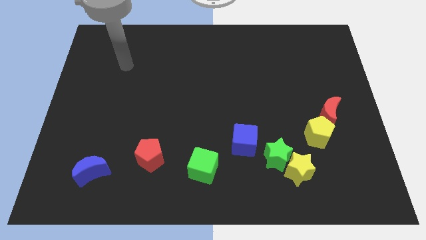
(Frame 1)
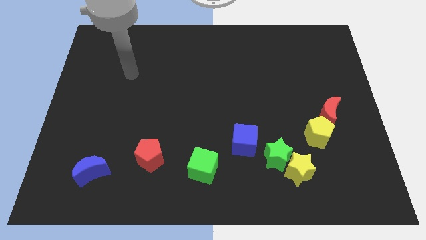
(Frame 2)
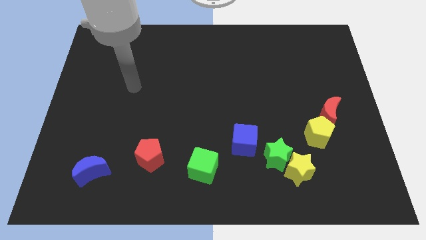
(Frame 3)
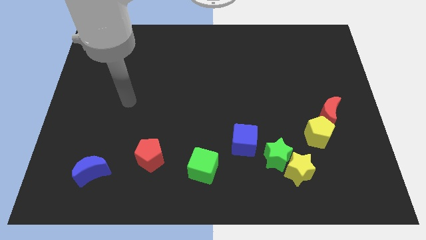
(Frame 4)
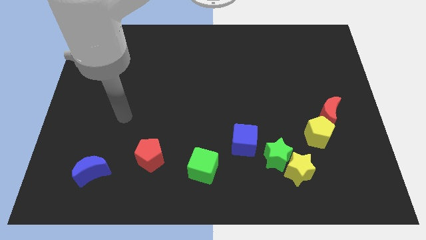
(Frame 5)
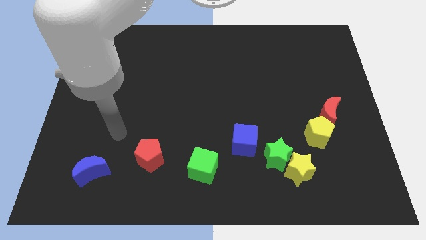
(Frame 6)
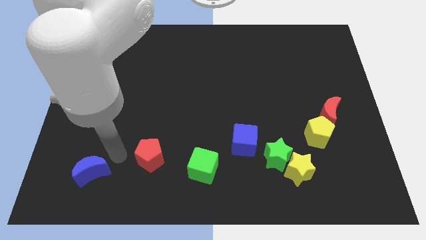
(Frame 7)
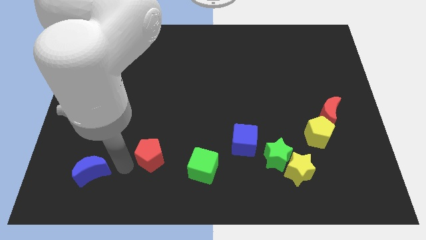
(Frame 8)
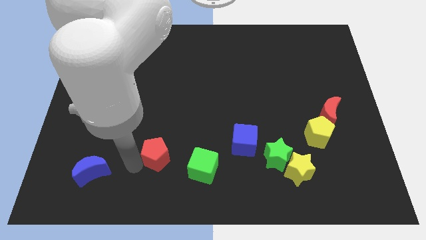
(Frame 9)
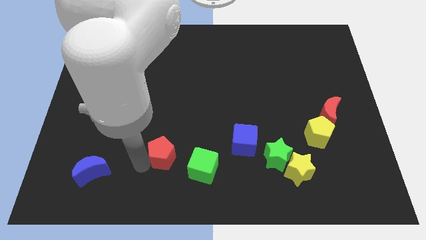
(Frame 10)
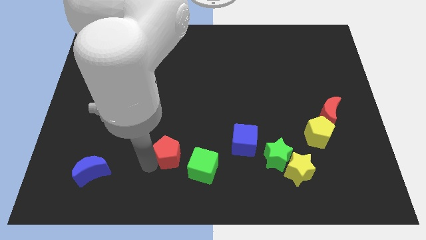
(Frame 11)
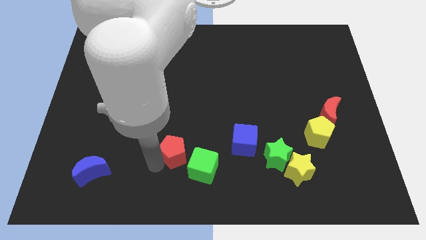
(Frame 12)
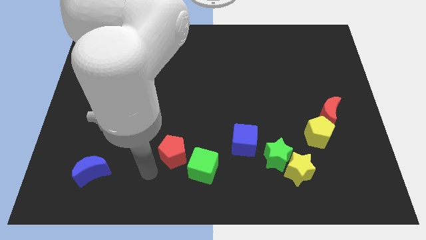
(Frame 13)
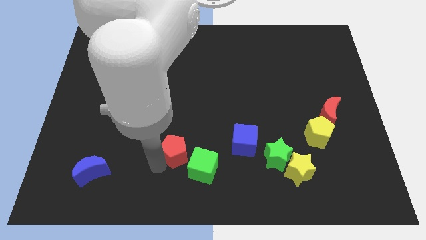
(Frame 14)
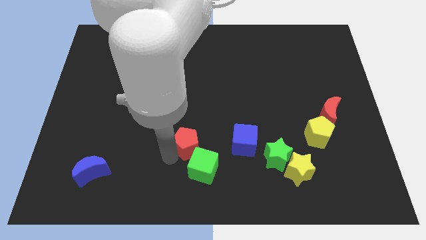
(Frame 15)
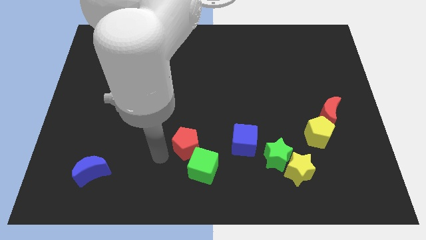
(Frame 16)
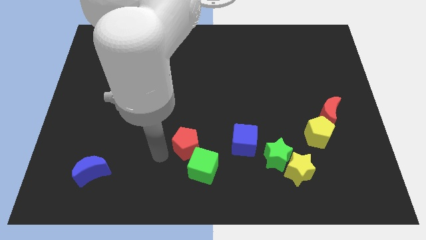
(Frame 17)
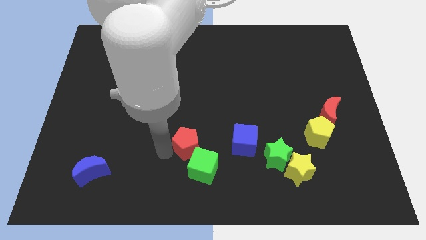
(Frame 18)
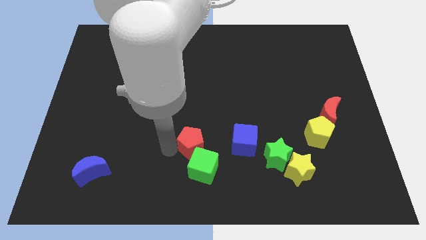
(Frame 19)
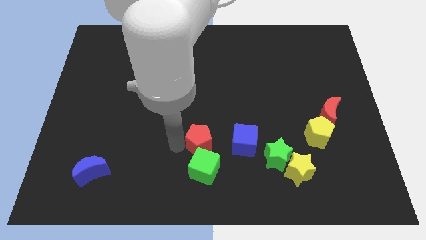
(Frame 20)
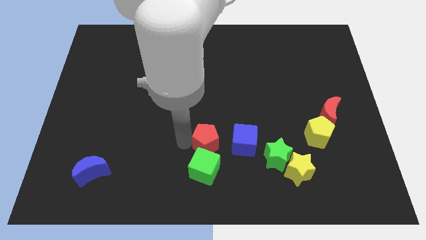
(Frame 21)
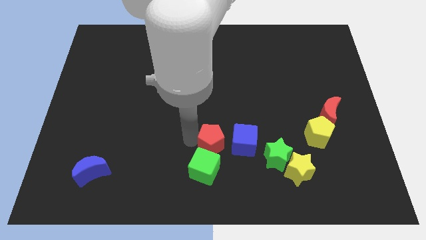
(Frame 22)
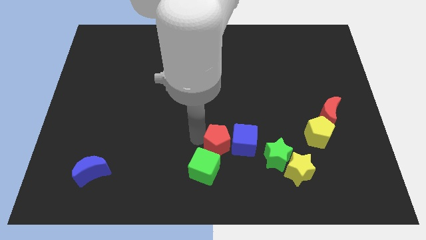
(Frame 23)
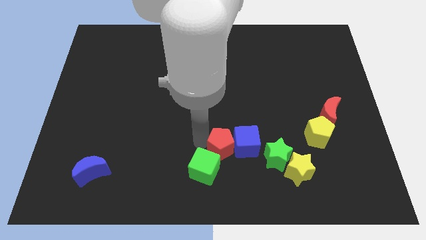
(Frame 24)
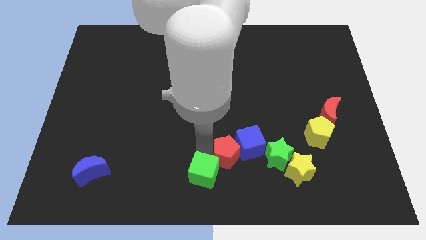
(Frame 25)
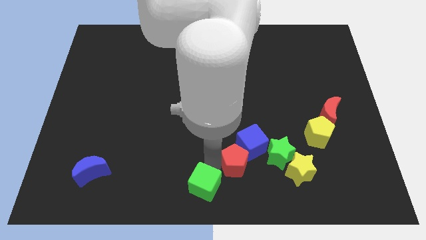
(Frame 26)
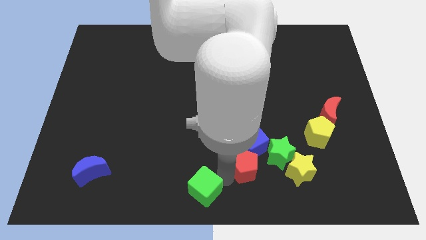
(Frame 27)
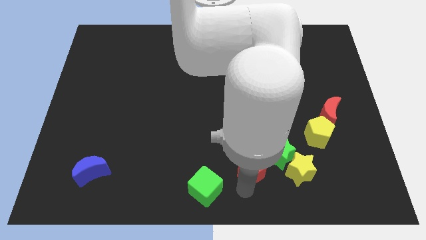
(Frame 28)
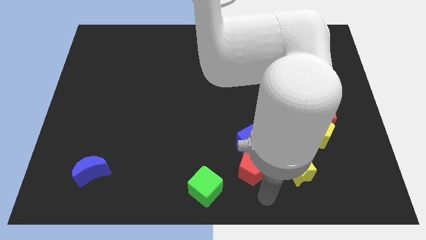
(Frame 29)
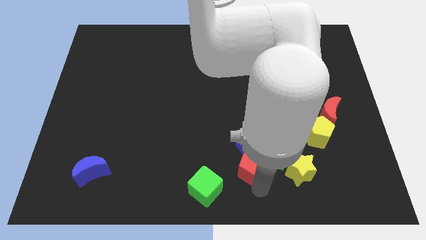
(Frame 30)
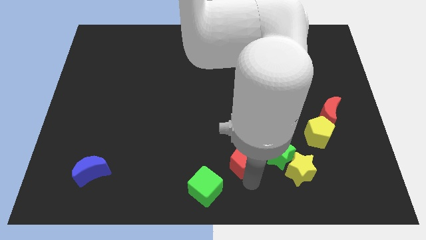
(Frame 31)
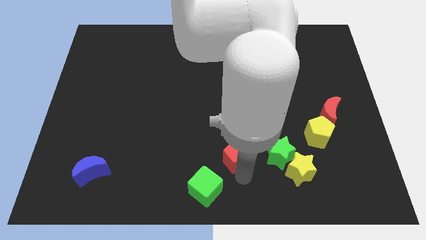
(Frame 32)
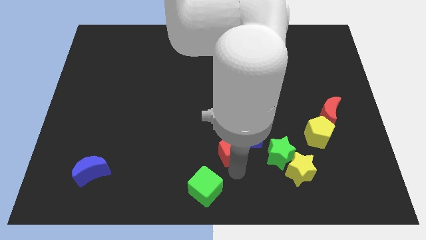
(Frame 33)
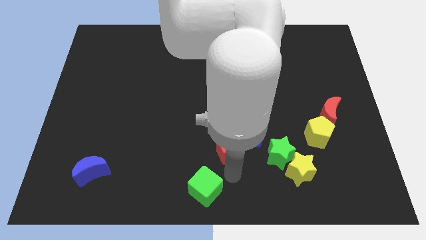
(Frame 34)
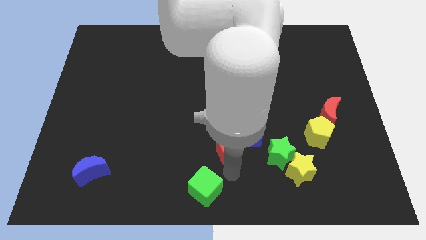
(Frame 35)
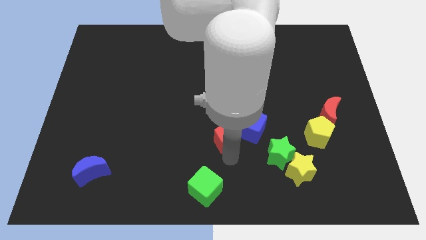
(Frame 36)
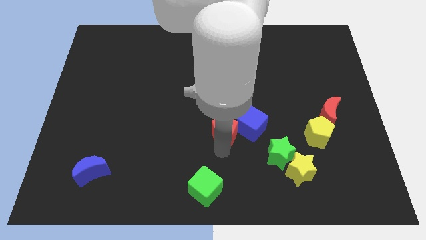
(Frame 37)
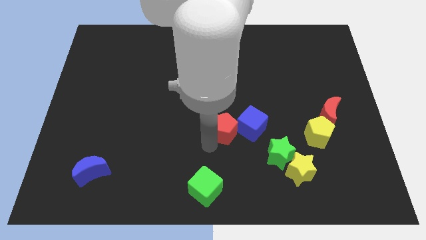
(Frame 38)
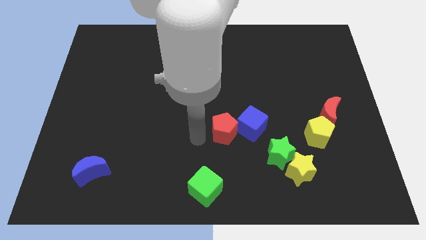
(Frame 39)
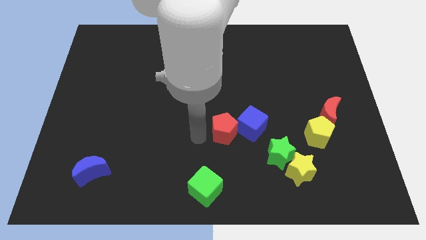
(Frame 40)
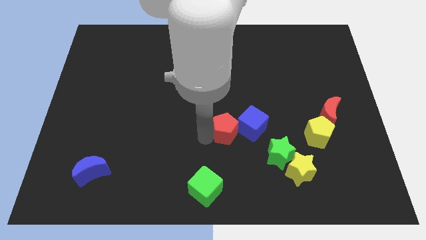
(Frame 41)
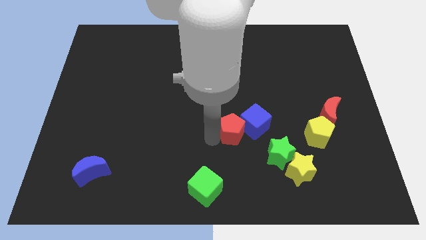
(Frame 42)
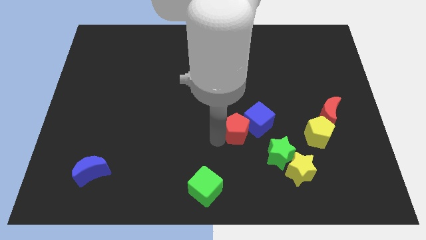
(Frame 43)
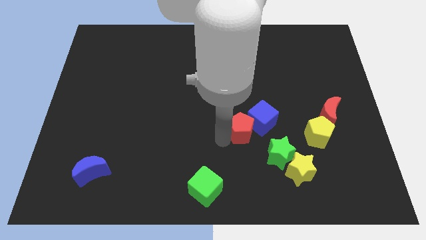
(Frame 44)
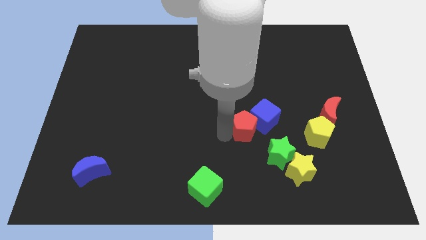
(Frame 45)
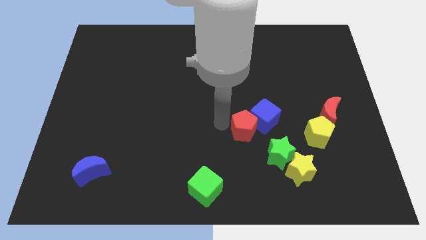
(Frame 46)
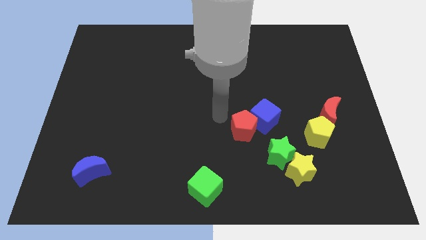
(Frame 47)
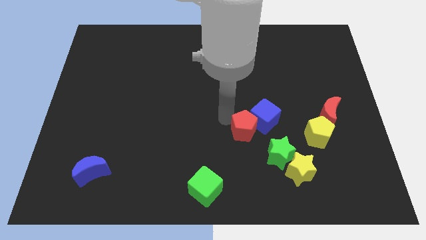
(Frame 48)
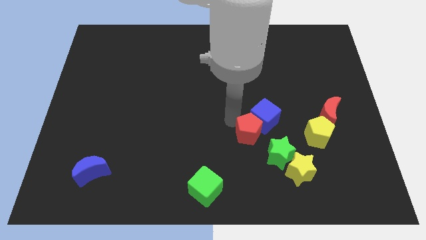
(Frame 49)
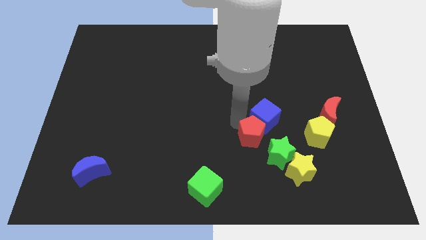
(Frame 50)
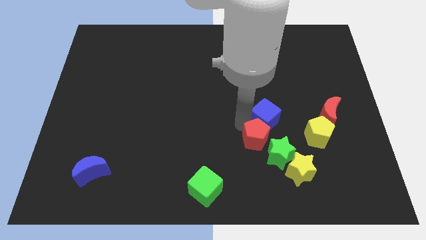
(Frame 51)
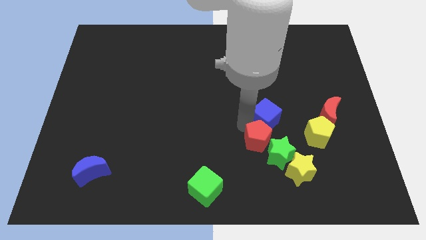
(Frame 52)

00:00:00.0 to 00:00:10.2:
push the red pentagon to the green star

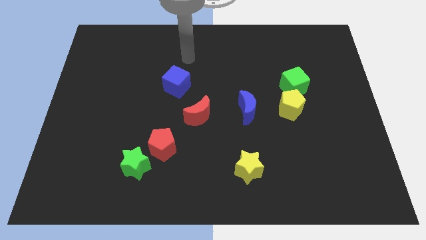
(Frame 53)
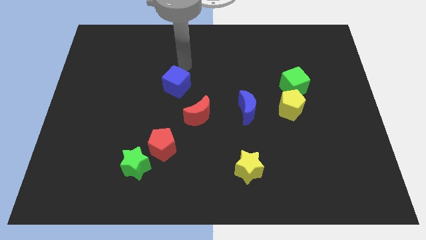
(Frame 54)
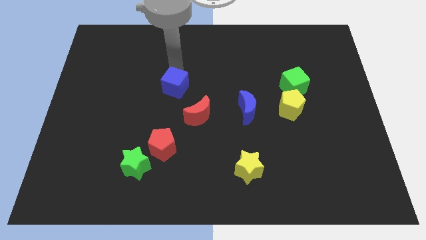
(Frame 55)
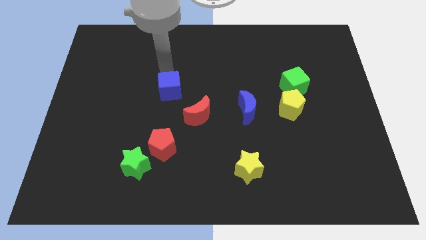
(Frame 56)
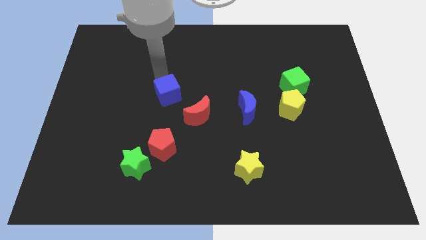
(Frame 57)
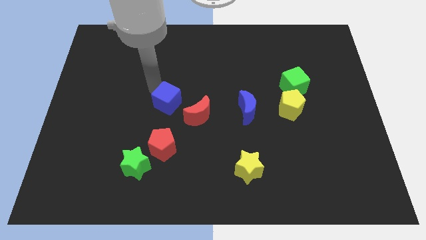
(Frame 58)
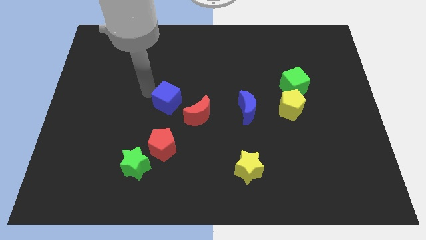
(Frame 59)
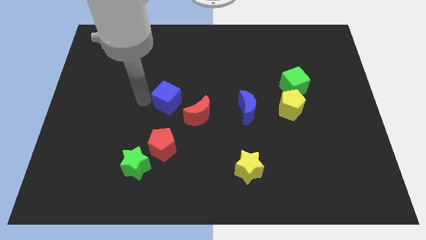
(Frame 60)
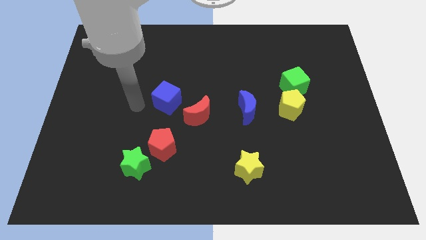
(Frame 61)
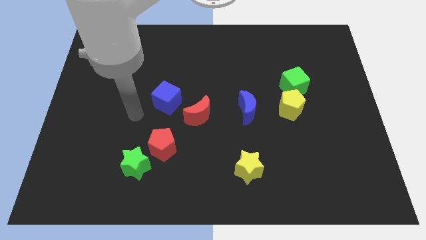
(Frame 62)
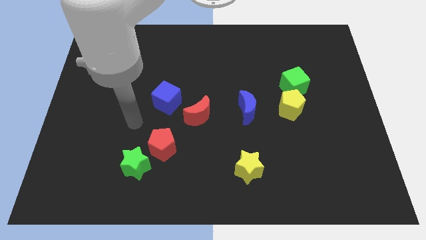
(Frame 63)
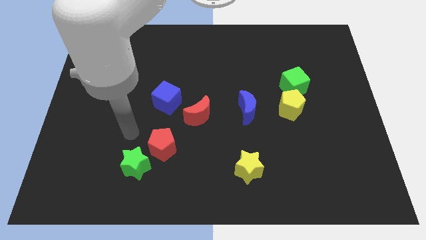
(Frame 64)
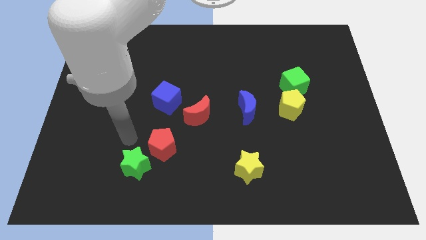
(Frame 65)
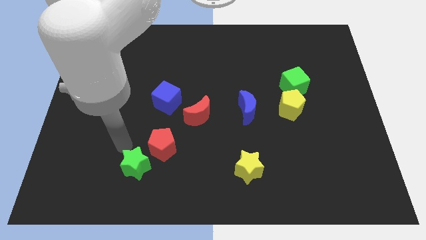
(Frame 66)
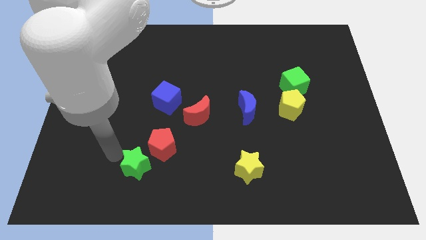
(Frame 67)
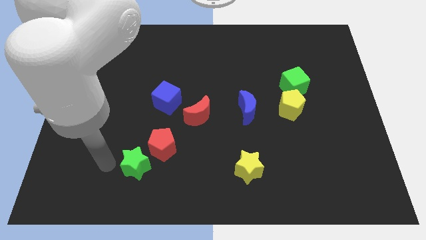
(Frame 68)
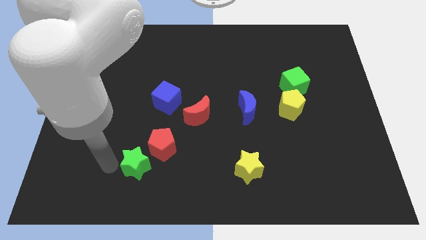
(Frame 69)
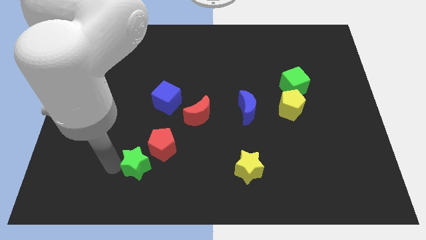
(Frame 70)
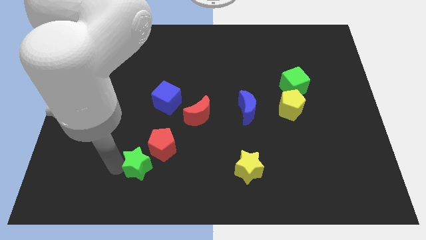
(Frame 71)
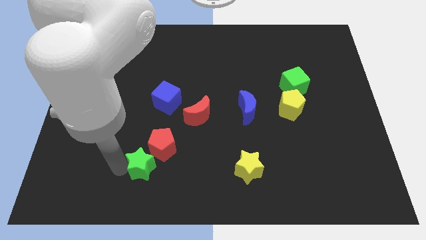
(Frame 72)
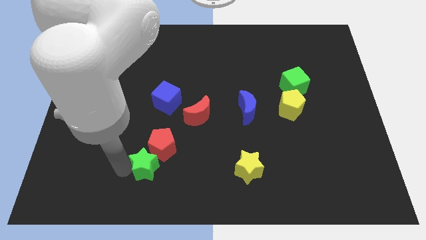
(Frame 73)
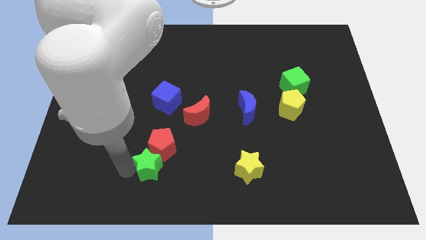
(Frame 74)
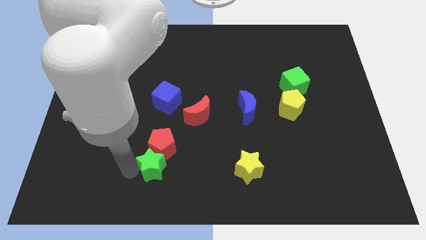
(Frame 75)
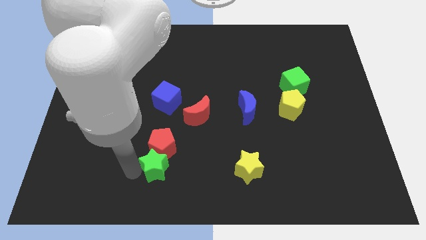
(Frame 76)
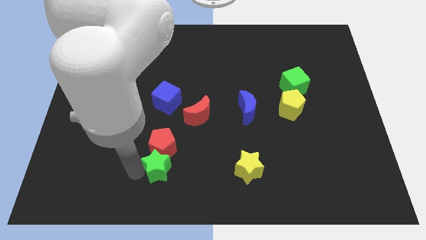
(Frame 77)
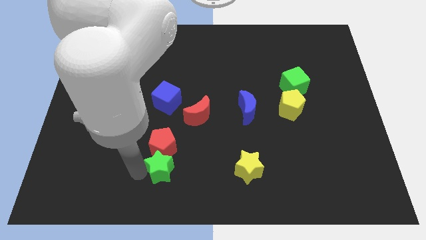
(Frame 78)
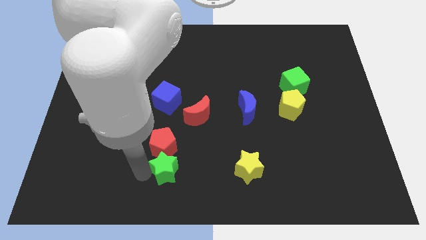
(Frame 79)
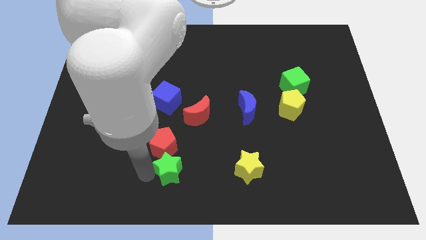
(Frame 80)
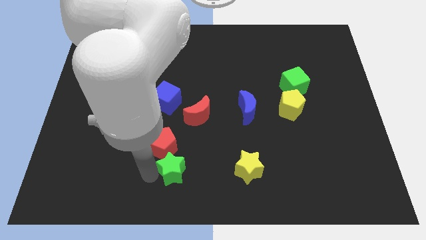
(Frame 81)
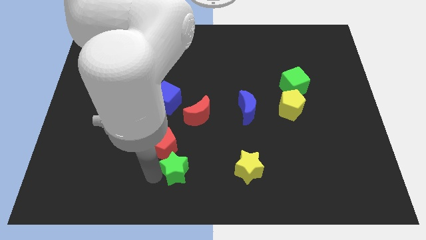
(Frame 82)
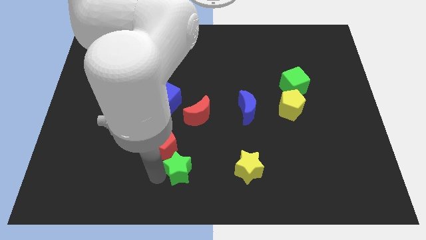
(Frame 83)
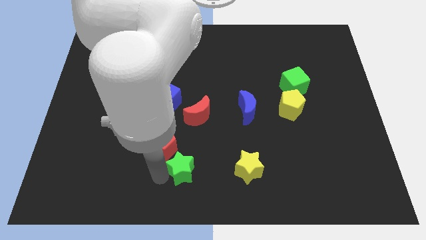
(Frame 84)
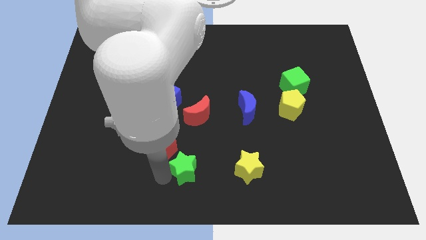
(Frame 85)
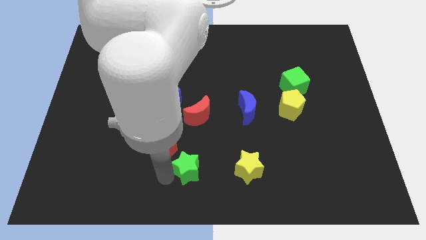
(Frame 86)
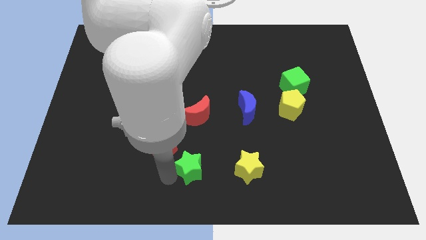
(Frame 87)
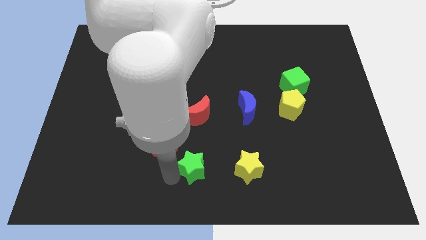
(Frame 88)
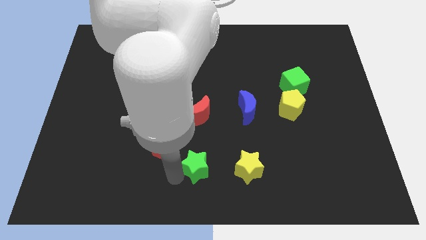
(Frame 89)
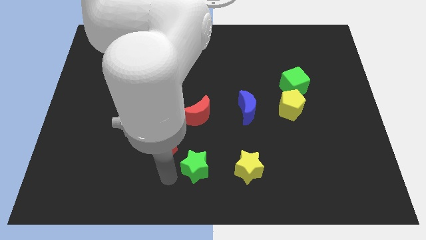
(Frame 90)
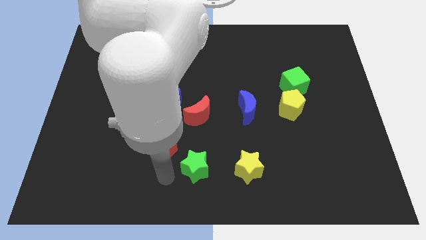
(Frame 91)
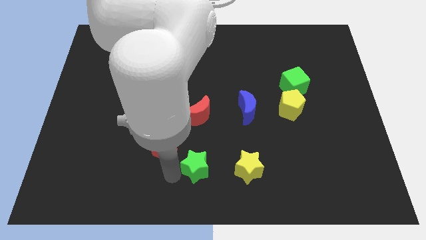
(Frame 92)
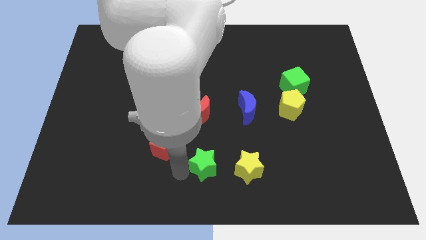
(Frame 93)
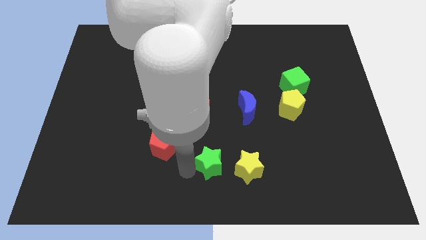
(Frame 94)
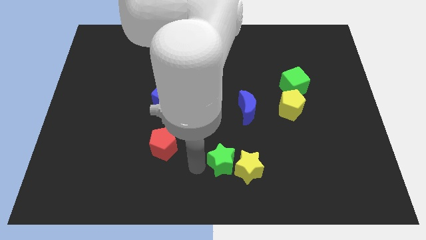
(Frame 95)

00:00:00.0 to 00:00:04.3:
put the green star close to the yellow star
